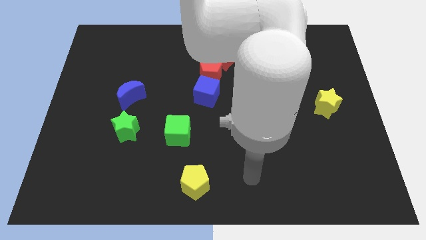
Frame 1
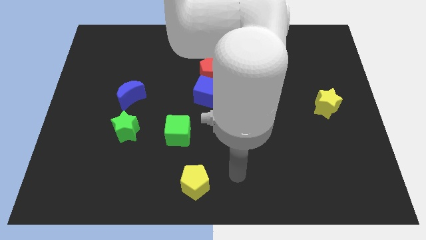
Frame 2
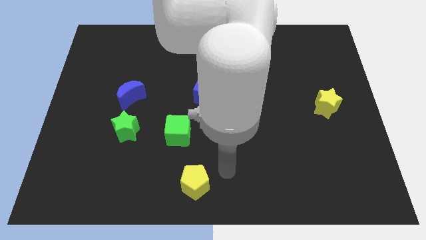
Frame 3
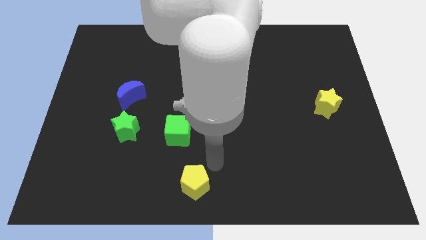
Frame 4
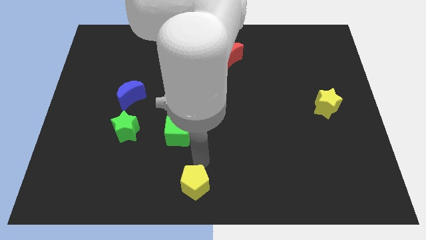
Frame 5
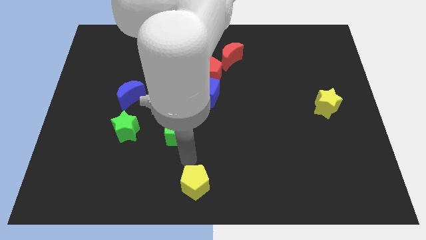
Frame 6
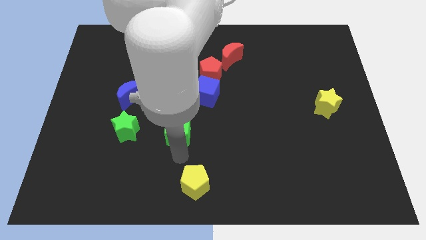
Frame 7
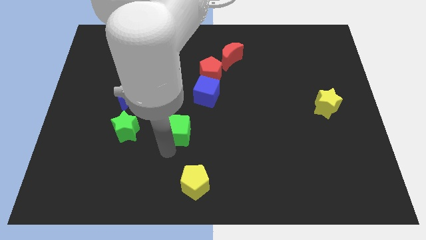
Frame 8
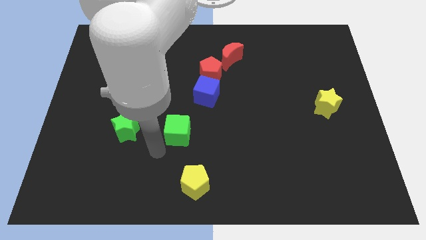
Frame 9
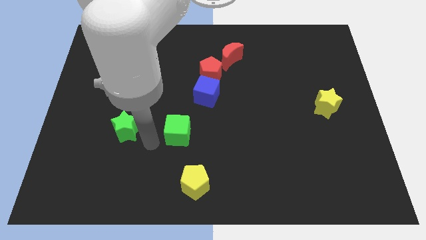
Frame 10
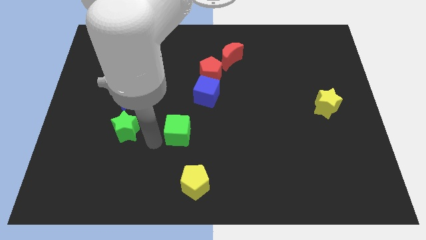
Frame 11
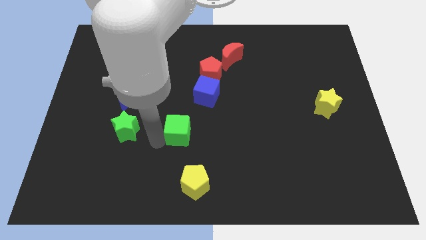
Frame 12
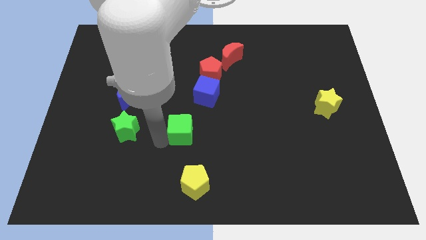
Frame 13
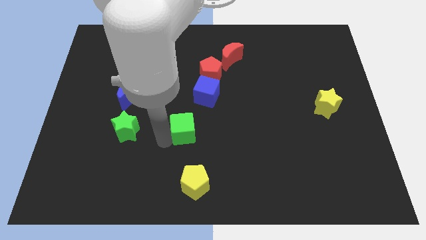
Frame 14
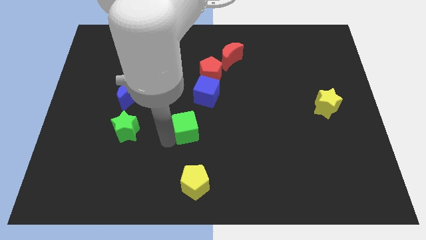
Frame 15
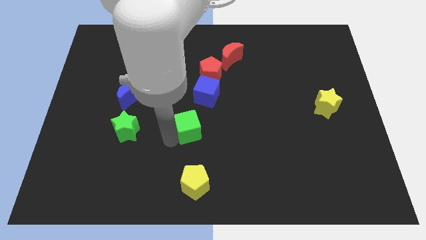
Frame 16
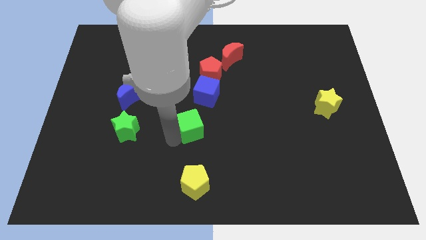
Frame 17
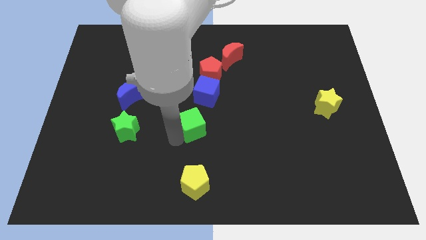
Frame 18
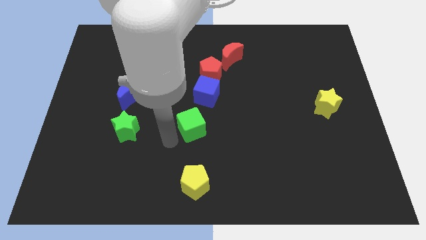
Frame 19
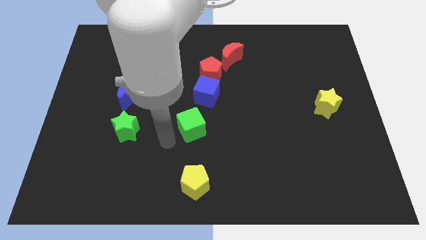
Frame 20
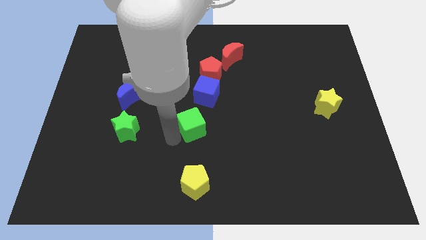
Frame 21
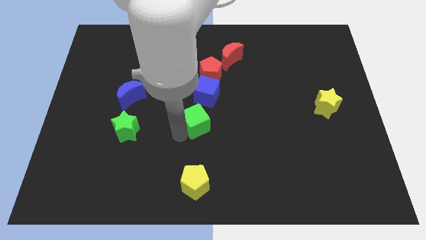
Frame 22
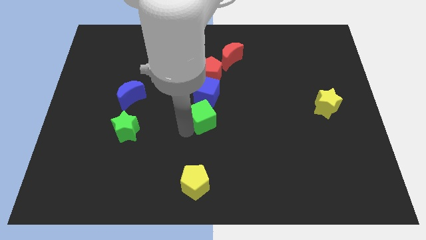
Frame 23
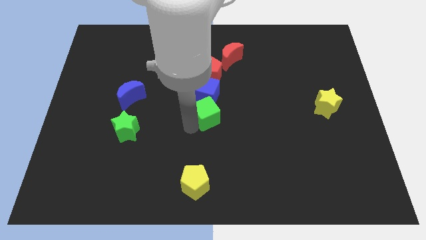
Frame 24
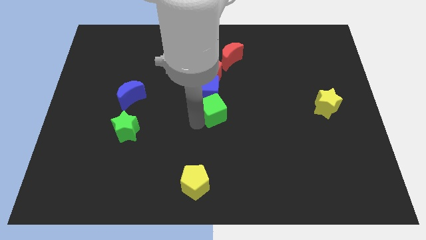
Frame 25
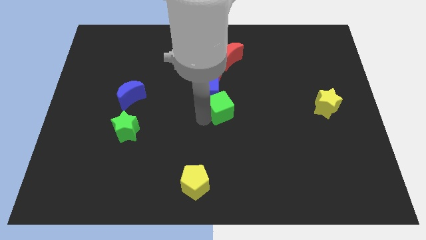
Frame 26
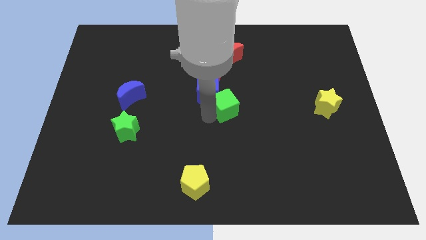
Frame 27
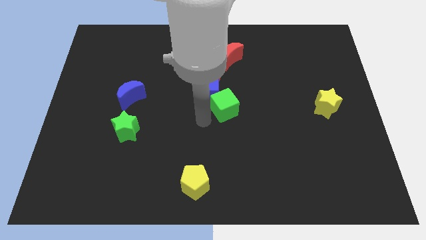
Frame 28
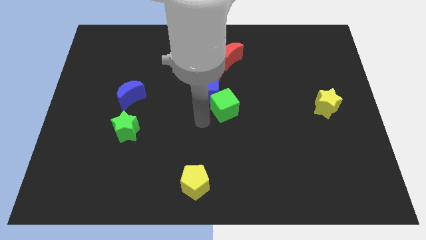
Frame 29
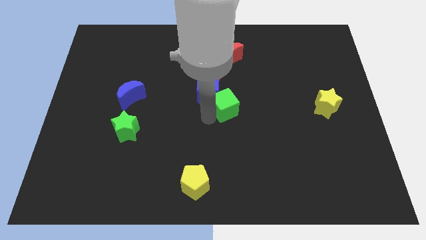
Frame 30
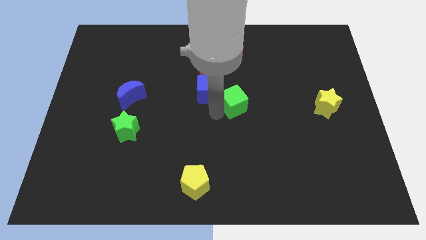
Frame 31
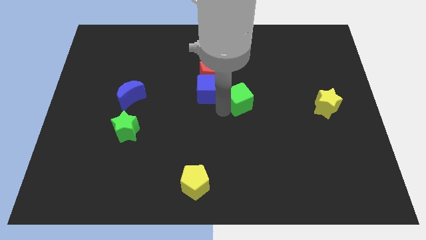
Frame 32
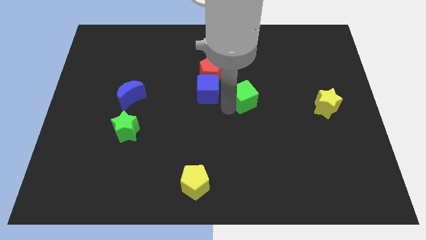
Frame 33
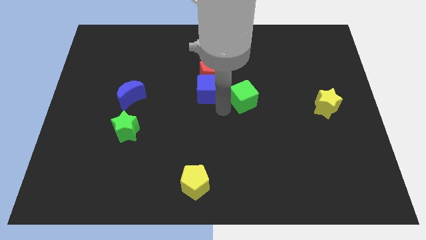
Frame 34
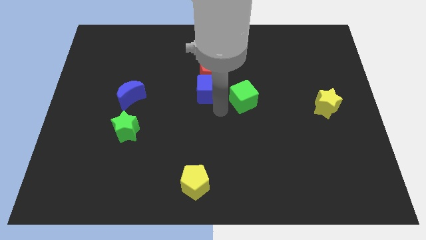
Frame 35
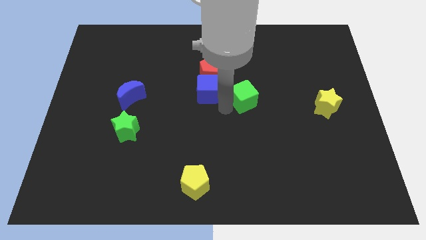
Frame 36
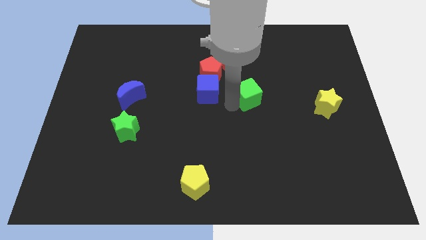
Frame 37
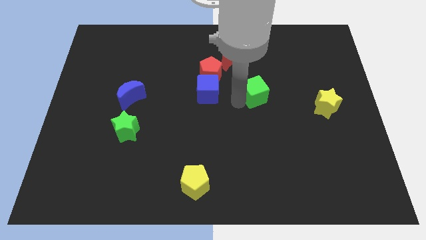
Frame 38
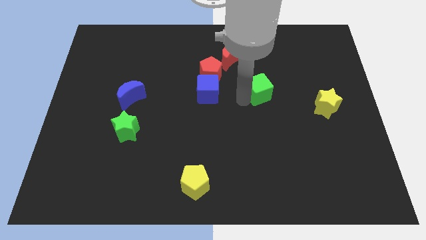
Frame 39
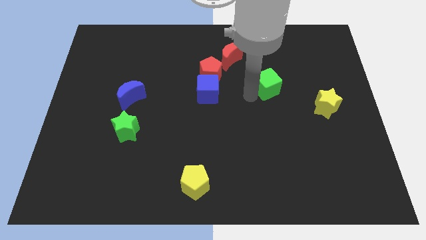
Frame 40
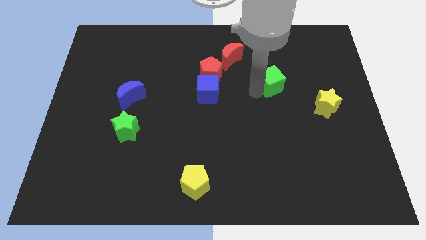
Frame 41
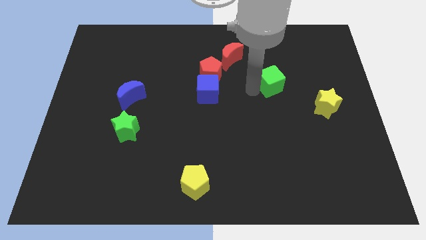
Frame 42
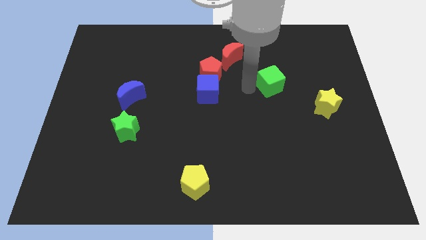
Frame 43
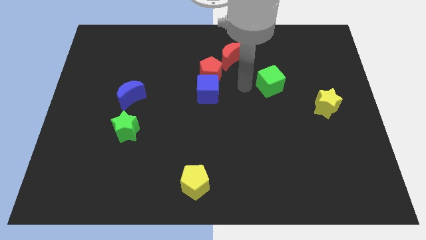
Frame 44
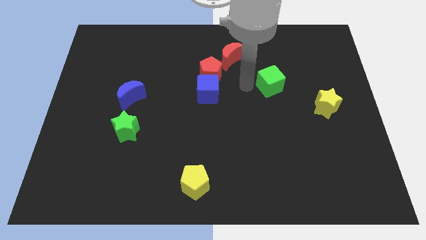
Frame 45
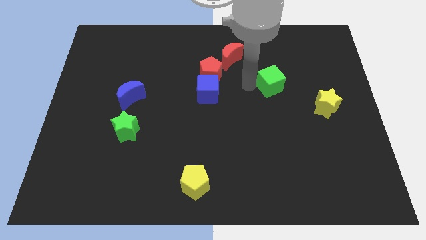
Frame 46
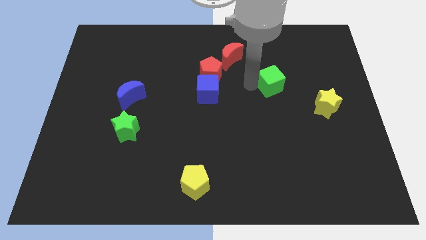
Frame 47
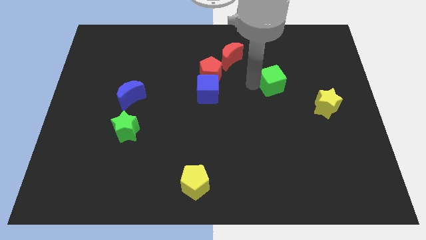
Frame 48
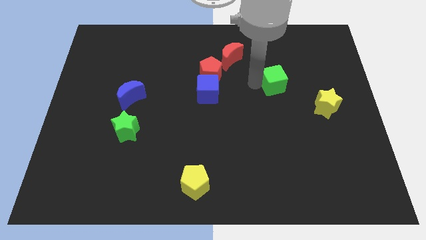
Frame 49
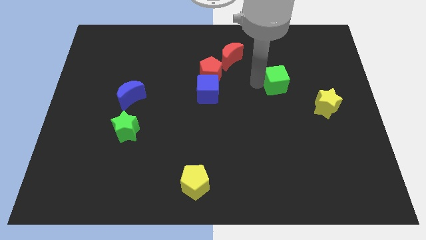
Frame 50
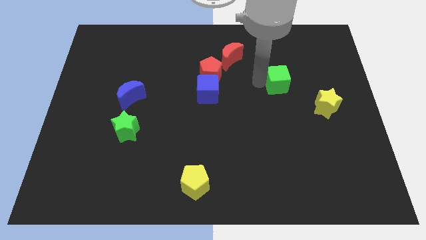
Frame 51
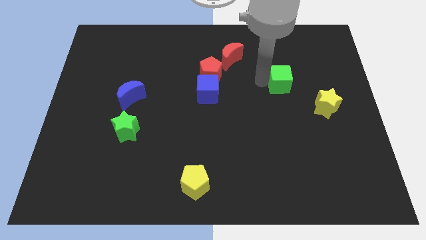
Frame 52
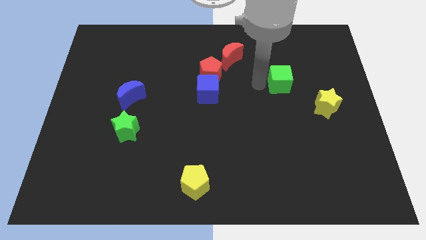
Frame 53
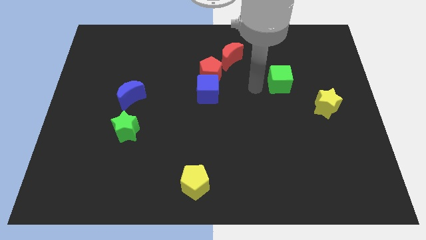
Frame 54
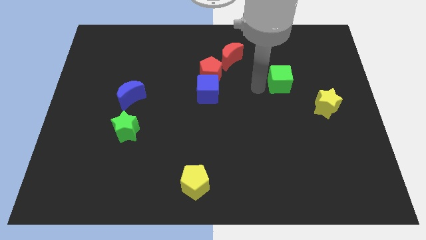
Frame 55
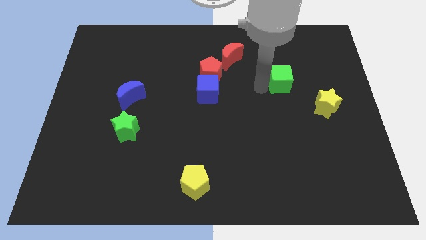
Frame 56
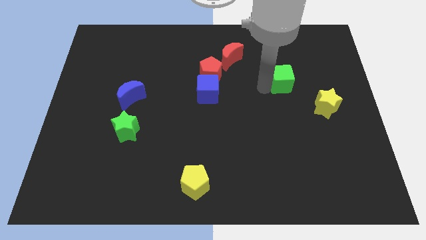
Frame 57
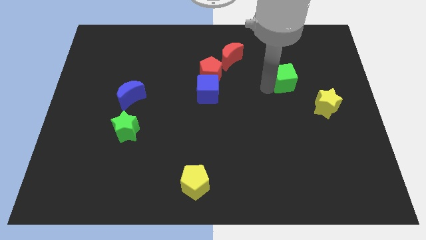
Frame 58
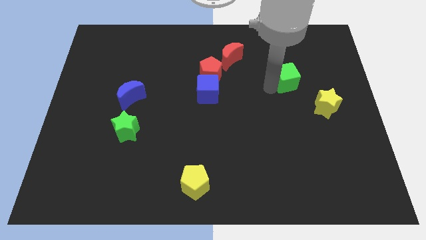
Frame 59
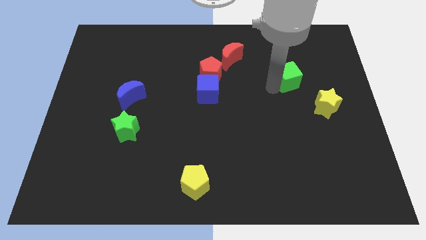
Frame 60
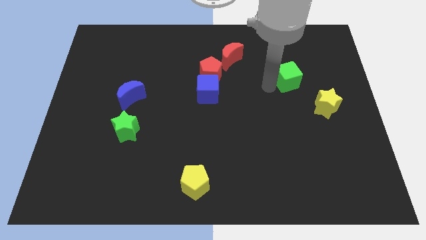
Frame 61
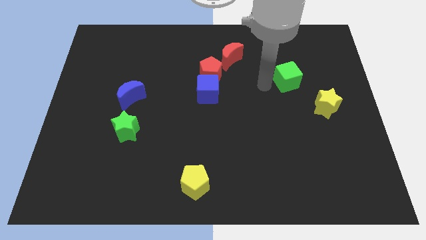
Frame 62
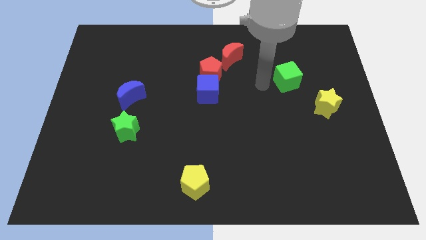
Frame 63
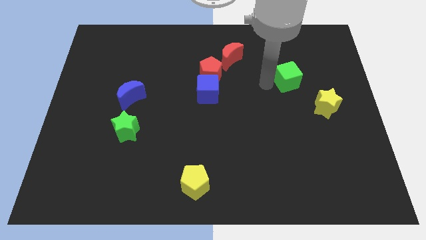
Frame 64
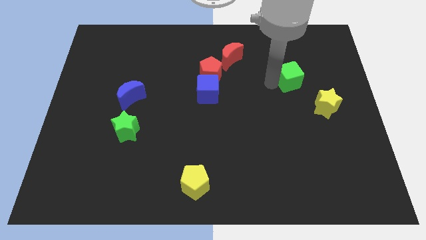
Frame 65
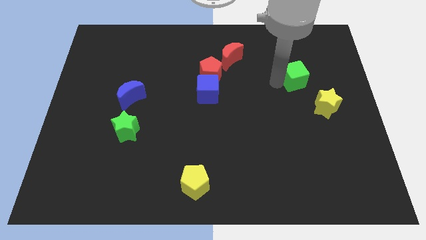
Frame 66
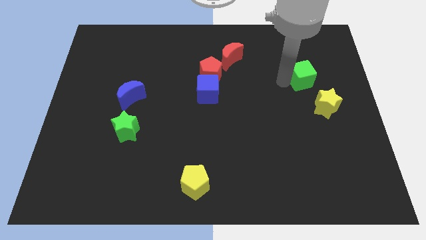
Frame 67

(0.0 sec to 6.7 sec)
put the green cube to the top side of the yellow star

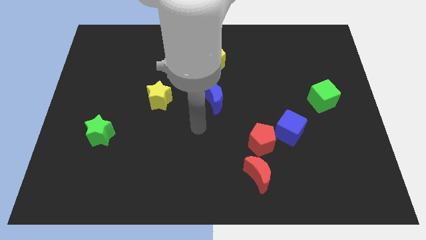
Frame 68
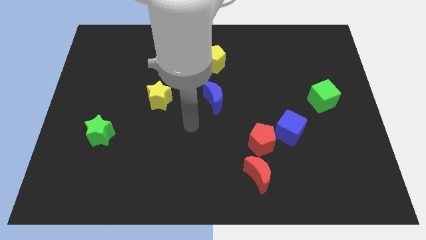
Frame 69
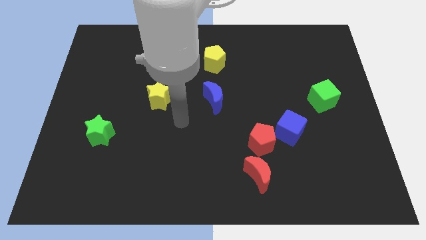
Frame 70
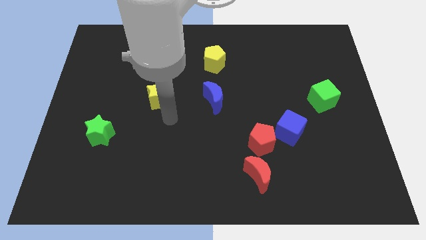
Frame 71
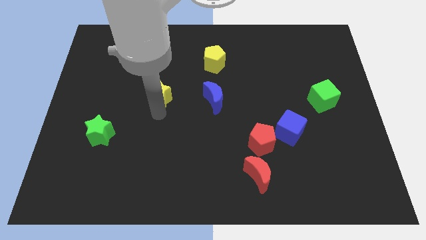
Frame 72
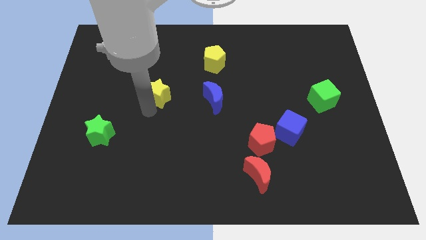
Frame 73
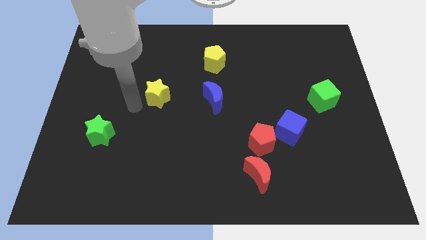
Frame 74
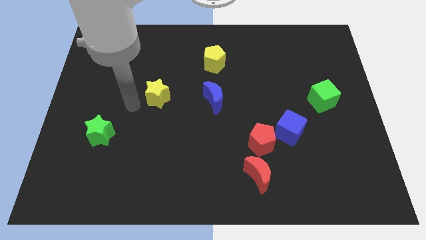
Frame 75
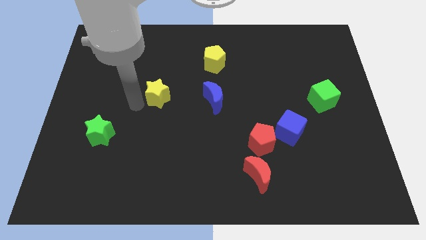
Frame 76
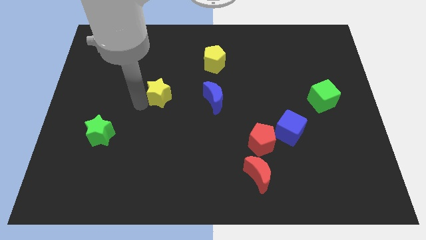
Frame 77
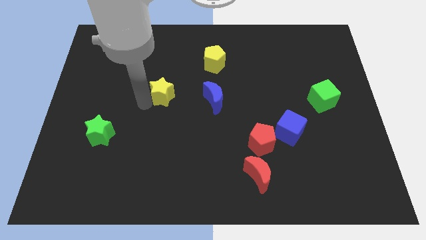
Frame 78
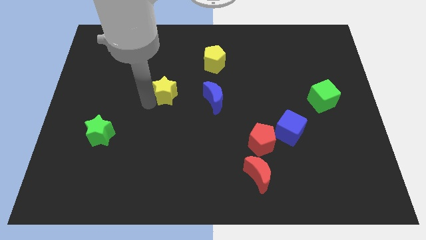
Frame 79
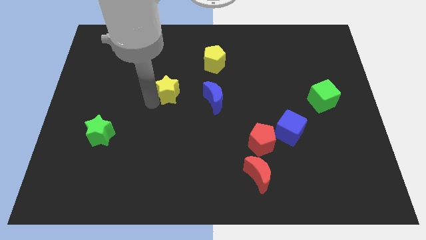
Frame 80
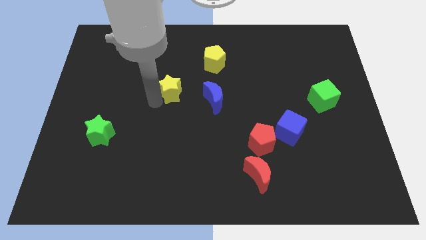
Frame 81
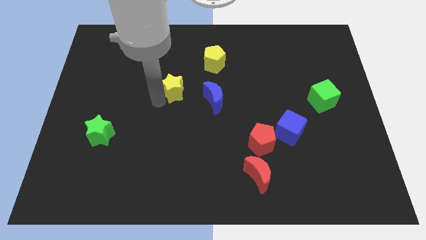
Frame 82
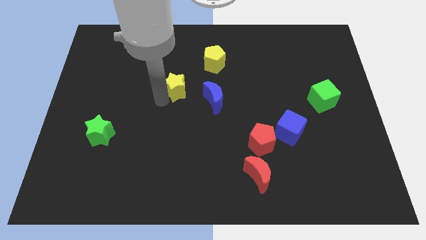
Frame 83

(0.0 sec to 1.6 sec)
slide the yellow star to the top left side of the blue moon
